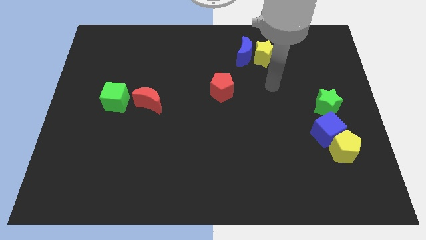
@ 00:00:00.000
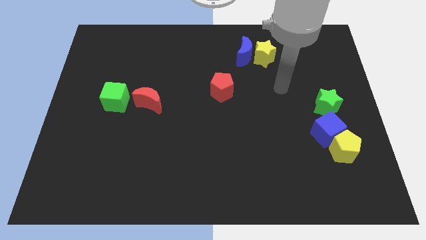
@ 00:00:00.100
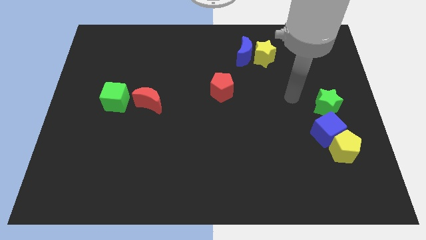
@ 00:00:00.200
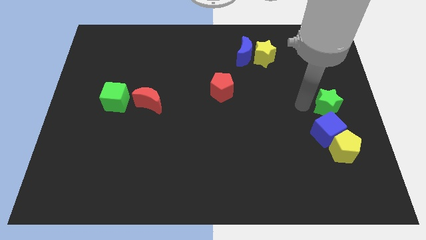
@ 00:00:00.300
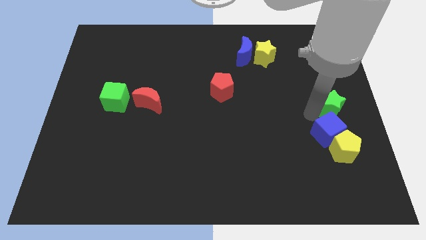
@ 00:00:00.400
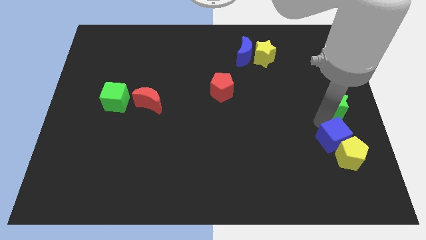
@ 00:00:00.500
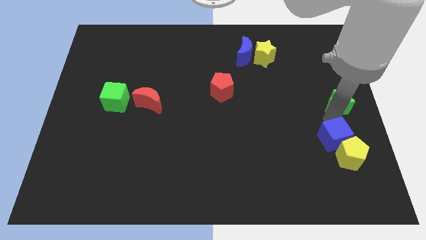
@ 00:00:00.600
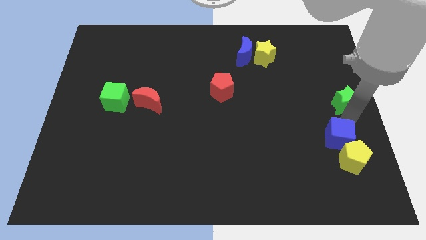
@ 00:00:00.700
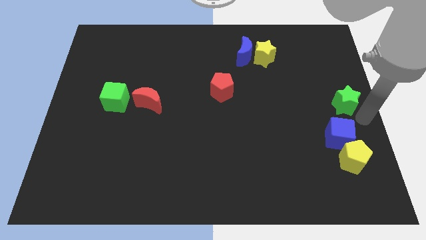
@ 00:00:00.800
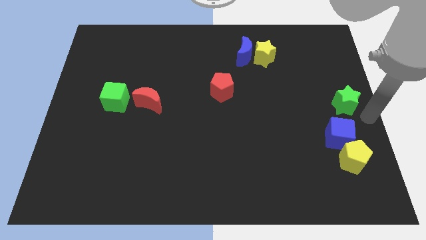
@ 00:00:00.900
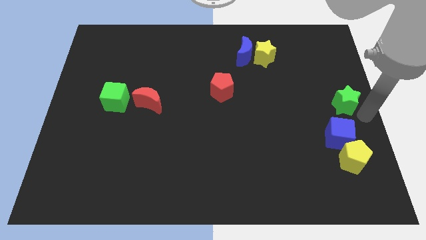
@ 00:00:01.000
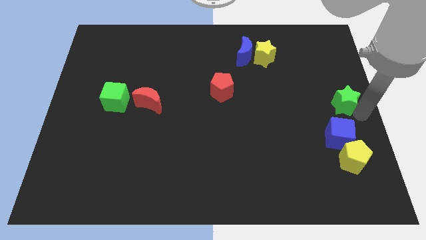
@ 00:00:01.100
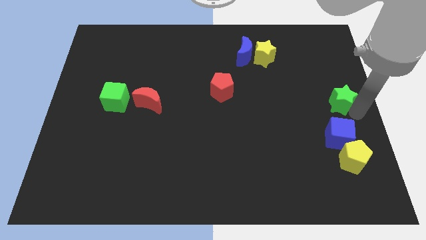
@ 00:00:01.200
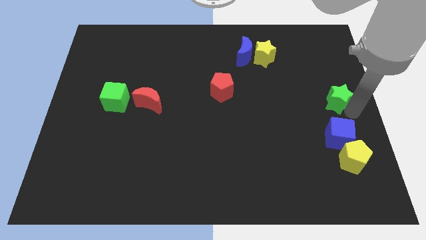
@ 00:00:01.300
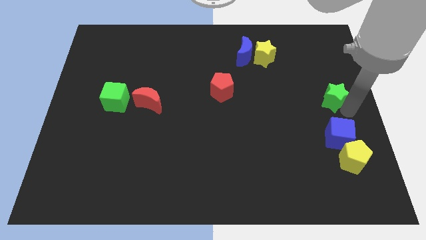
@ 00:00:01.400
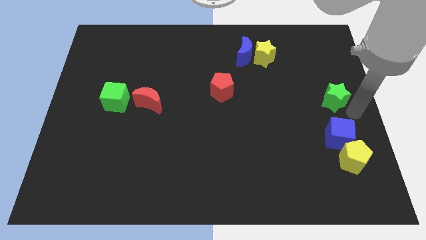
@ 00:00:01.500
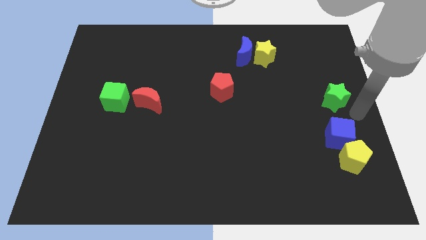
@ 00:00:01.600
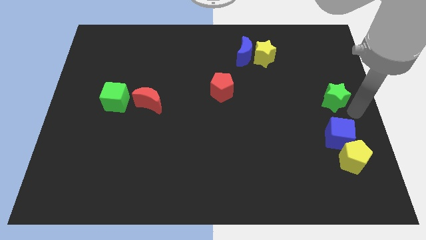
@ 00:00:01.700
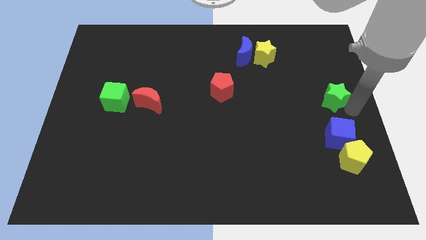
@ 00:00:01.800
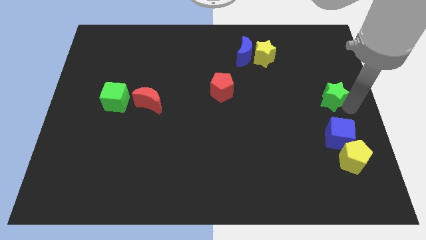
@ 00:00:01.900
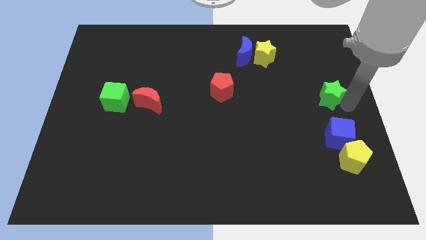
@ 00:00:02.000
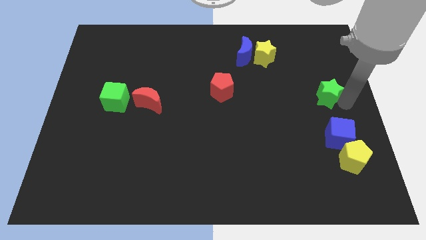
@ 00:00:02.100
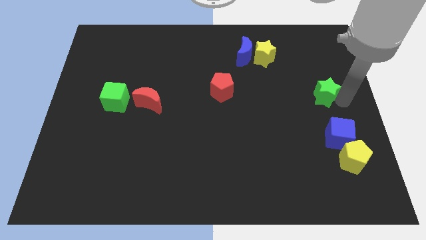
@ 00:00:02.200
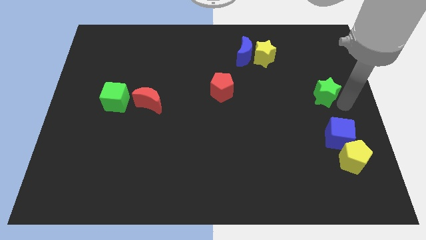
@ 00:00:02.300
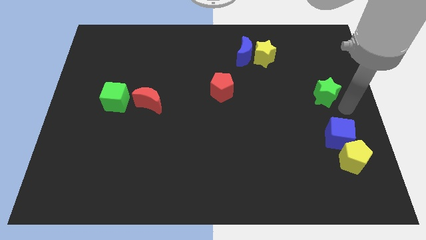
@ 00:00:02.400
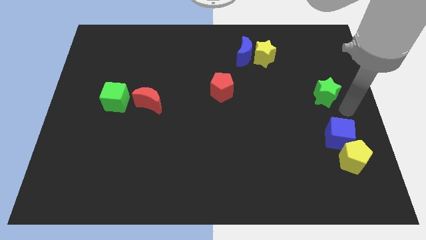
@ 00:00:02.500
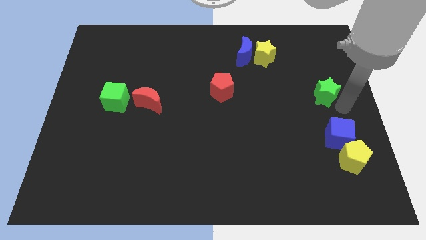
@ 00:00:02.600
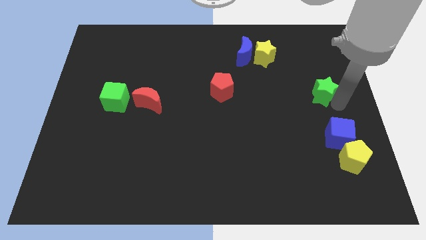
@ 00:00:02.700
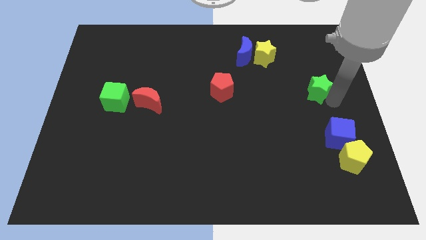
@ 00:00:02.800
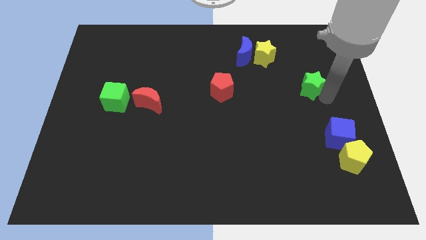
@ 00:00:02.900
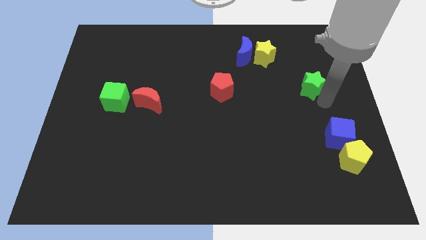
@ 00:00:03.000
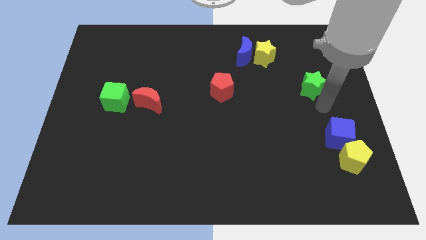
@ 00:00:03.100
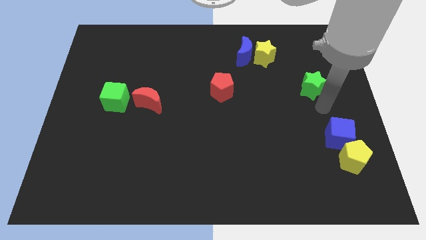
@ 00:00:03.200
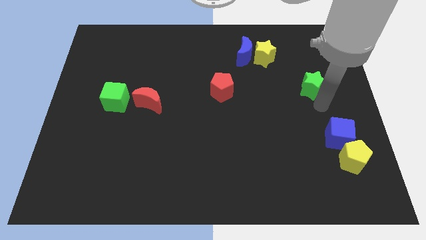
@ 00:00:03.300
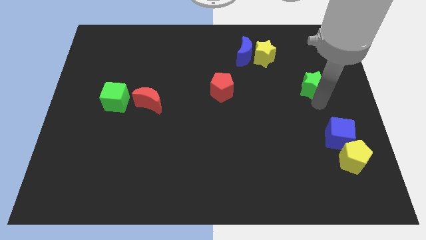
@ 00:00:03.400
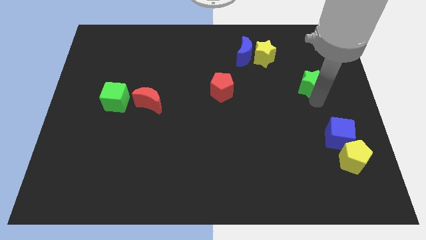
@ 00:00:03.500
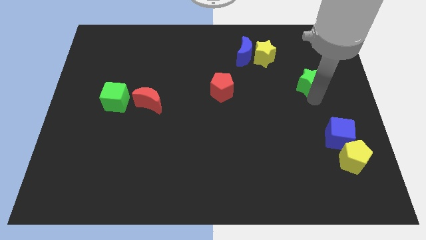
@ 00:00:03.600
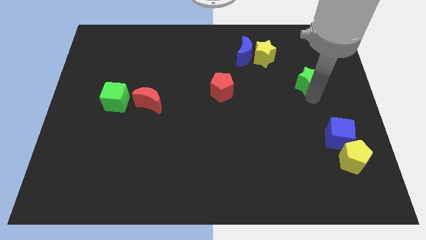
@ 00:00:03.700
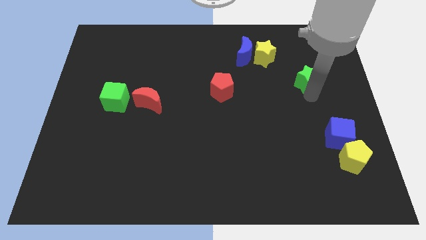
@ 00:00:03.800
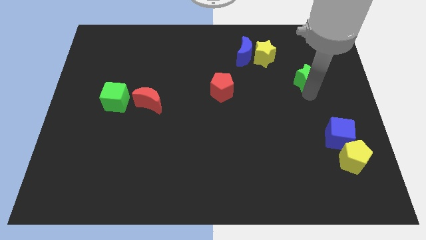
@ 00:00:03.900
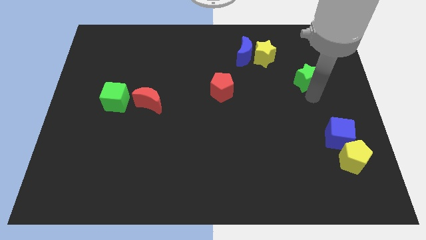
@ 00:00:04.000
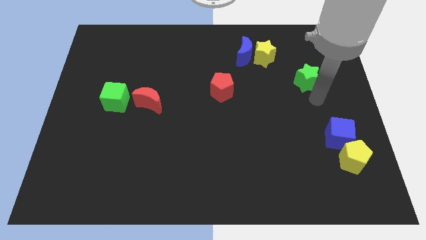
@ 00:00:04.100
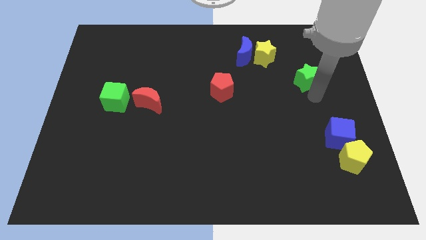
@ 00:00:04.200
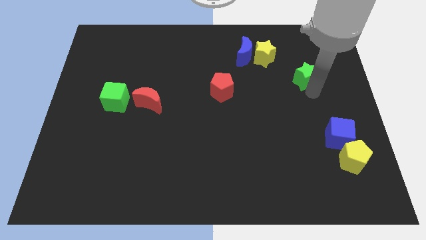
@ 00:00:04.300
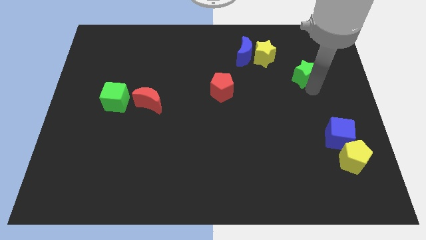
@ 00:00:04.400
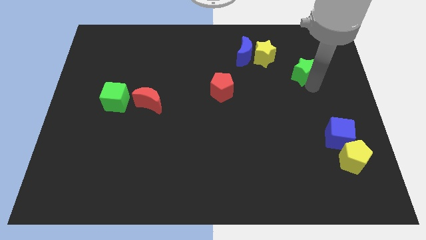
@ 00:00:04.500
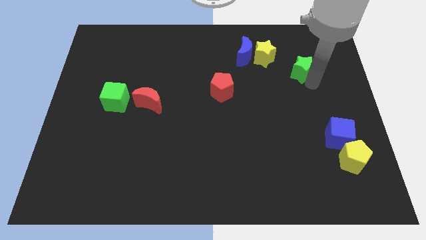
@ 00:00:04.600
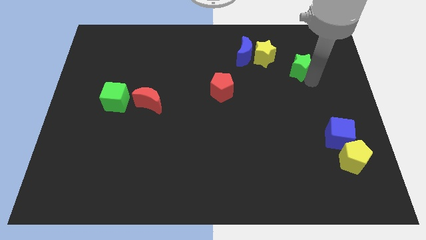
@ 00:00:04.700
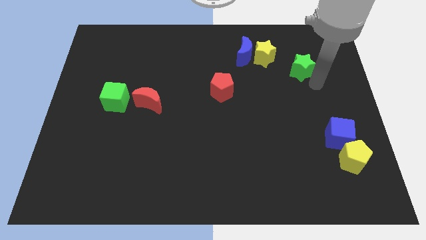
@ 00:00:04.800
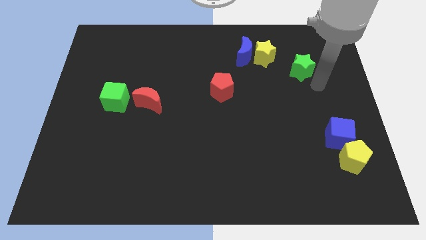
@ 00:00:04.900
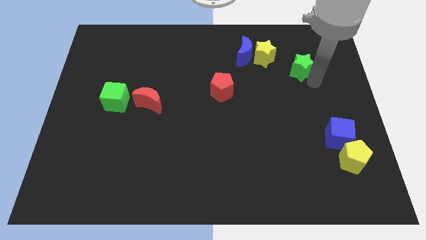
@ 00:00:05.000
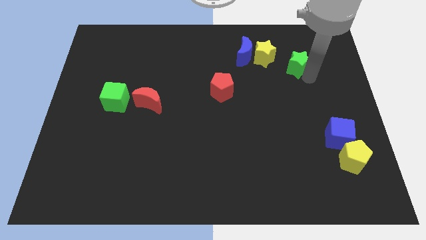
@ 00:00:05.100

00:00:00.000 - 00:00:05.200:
put the green star to the right side of the blue moon

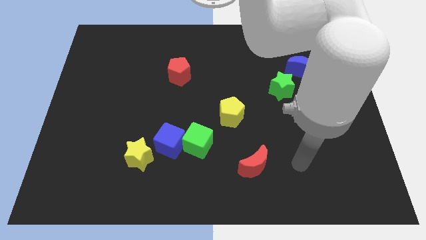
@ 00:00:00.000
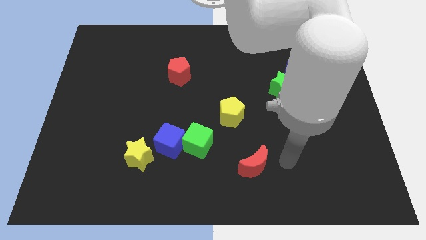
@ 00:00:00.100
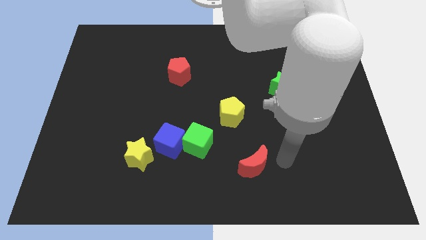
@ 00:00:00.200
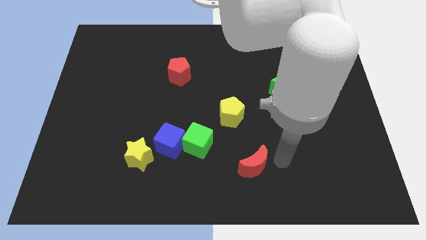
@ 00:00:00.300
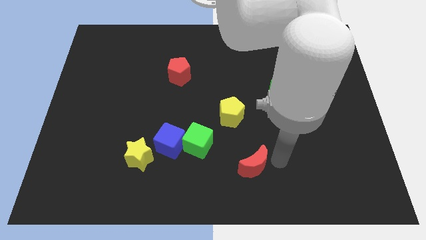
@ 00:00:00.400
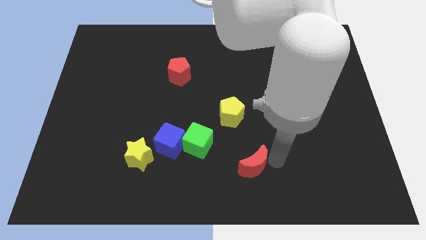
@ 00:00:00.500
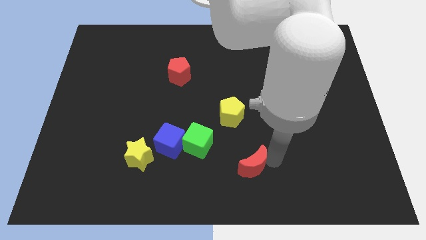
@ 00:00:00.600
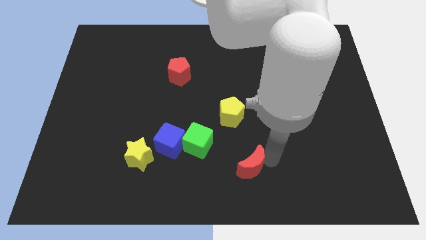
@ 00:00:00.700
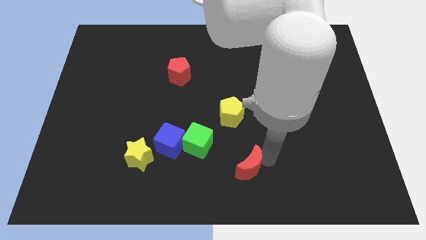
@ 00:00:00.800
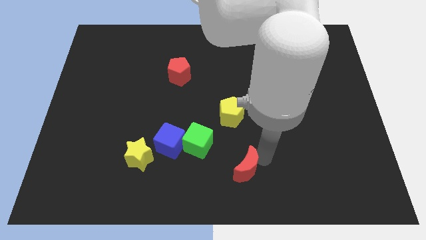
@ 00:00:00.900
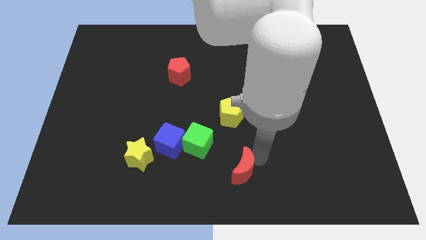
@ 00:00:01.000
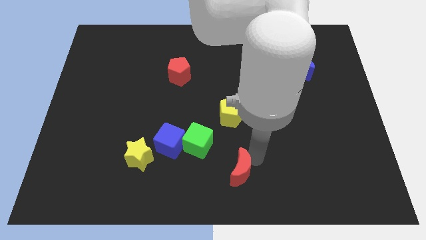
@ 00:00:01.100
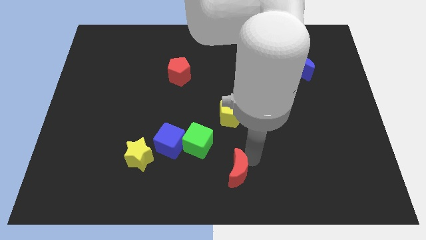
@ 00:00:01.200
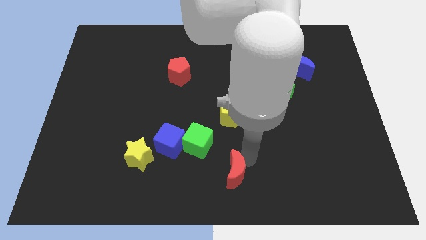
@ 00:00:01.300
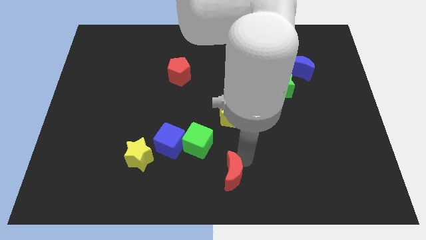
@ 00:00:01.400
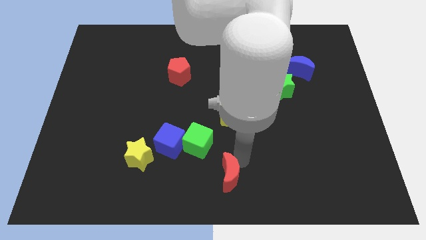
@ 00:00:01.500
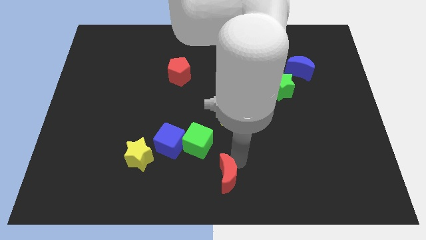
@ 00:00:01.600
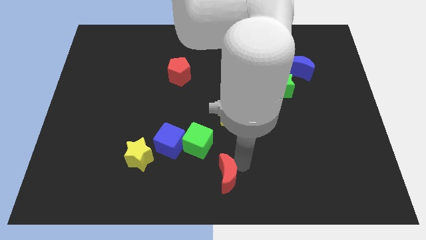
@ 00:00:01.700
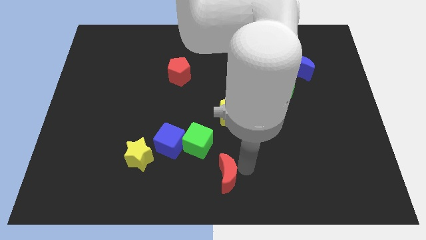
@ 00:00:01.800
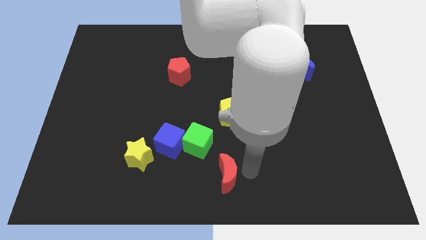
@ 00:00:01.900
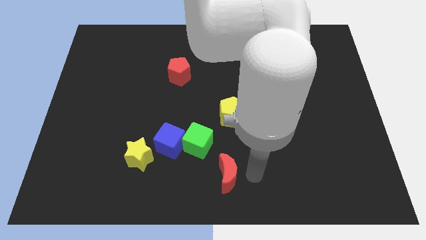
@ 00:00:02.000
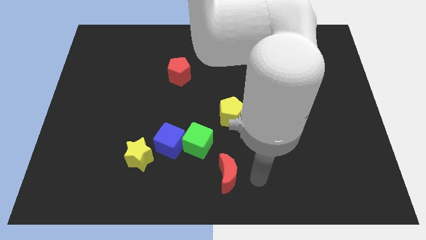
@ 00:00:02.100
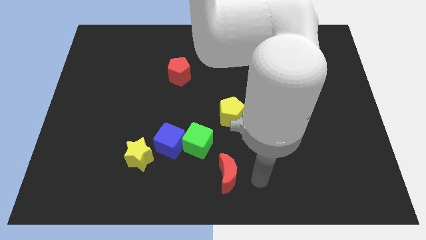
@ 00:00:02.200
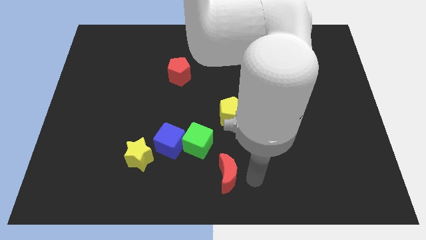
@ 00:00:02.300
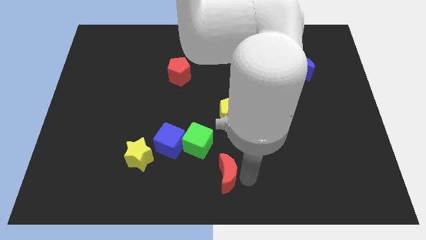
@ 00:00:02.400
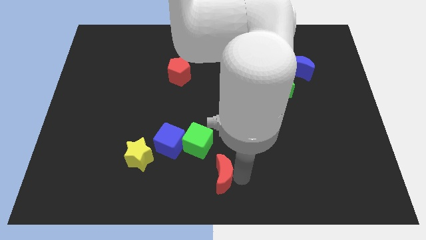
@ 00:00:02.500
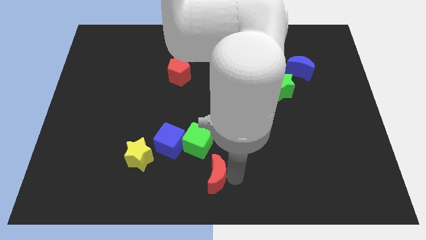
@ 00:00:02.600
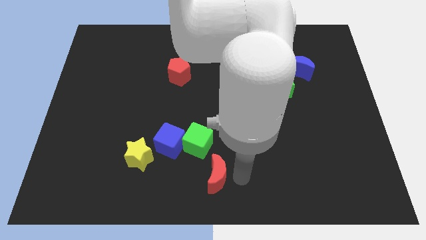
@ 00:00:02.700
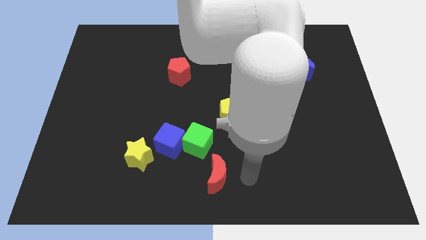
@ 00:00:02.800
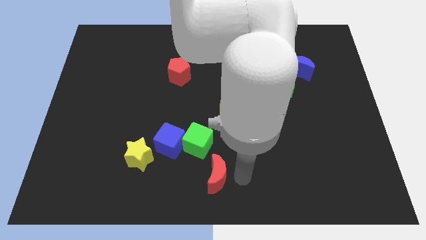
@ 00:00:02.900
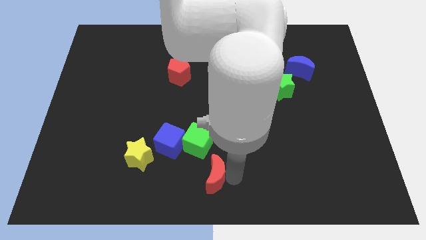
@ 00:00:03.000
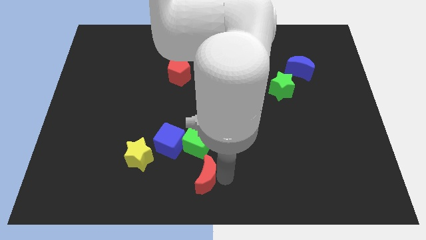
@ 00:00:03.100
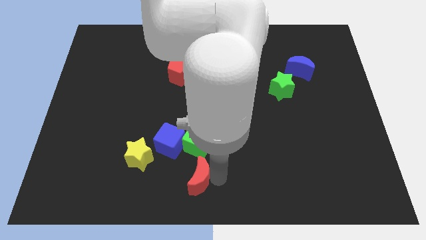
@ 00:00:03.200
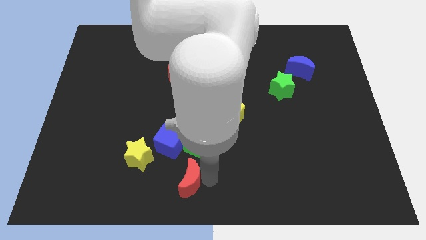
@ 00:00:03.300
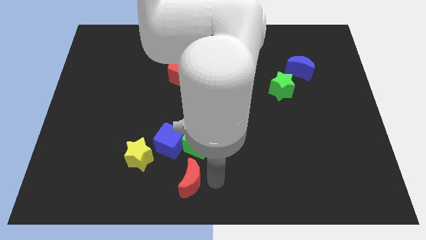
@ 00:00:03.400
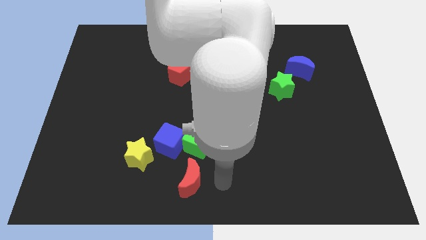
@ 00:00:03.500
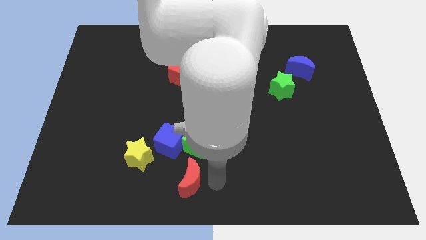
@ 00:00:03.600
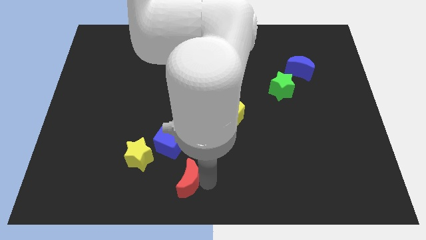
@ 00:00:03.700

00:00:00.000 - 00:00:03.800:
push the red moon diagonally down and to the right of the yellow star
